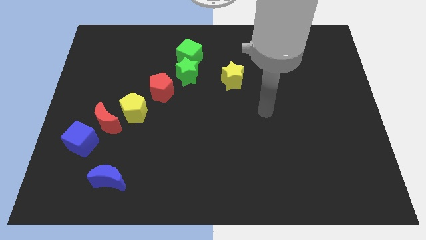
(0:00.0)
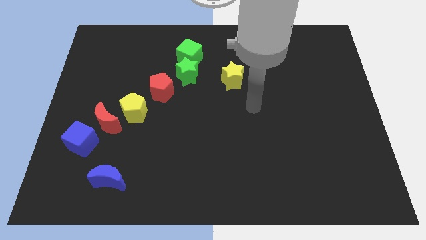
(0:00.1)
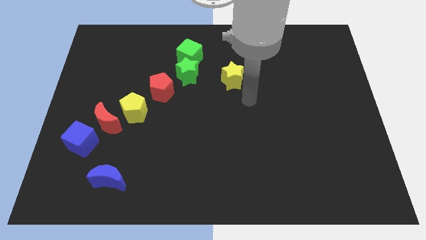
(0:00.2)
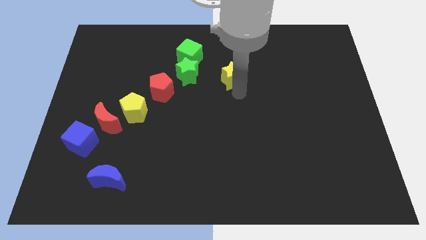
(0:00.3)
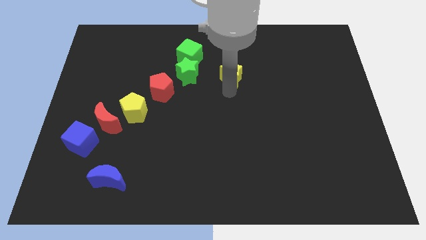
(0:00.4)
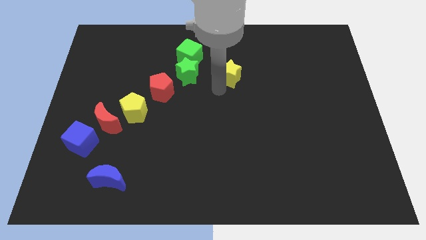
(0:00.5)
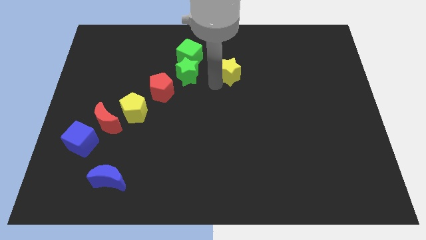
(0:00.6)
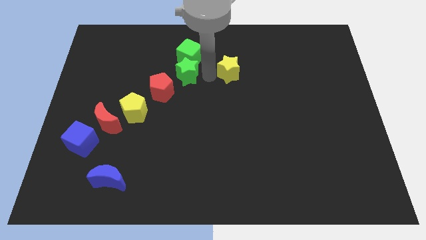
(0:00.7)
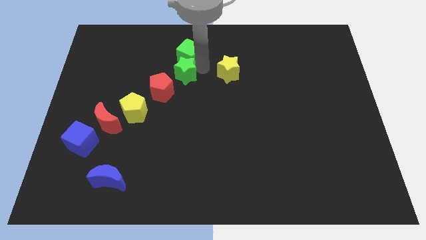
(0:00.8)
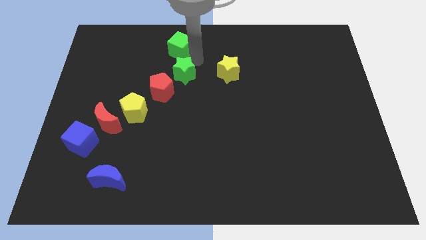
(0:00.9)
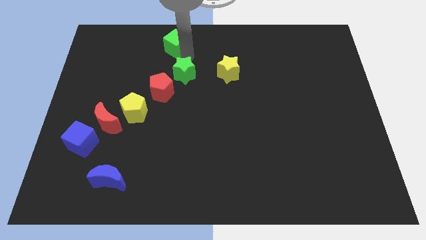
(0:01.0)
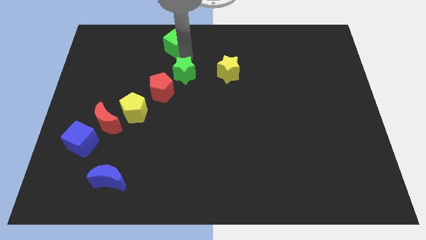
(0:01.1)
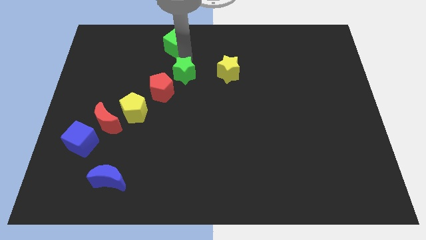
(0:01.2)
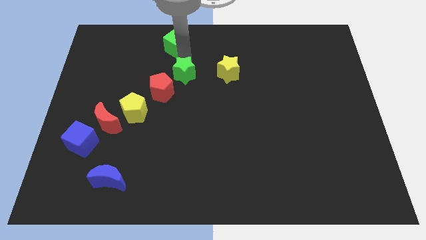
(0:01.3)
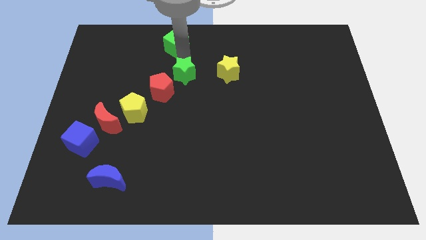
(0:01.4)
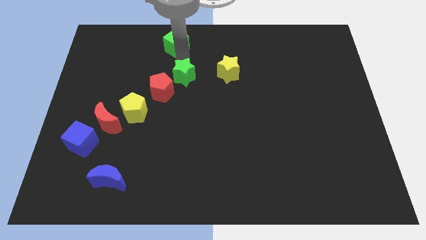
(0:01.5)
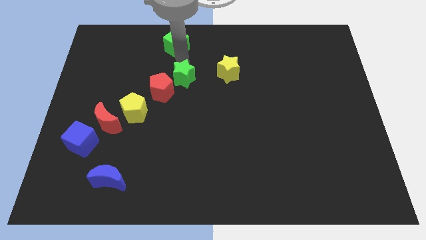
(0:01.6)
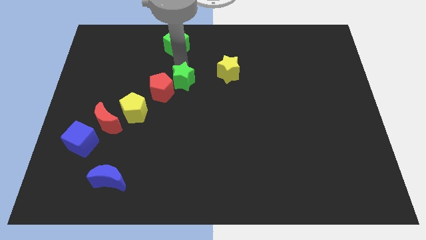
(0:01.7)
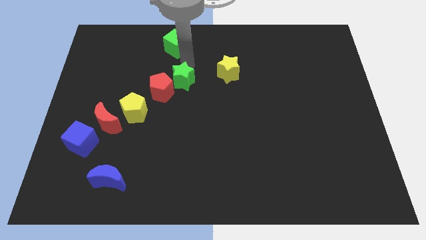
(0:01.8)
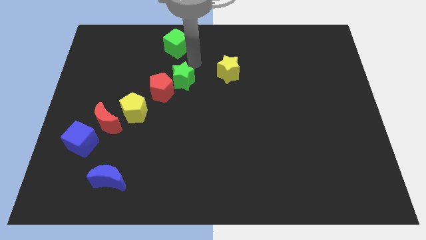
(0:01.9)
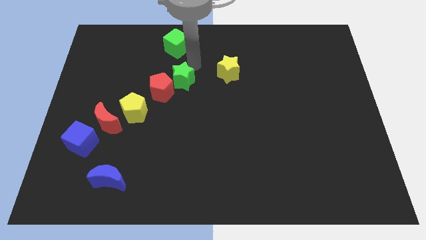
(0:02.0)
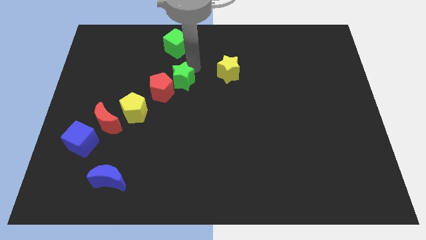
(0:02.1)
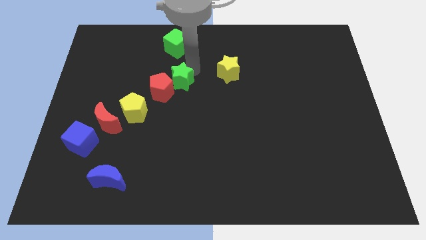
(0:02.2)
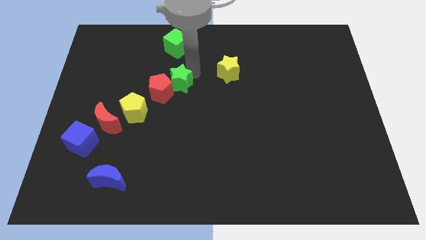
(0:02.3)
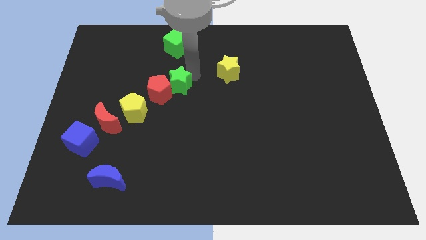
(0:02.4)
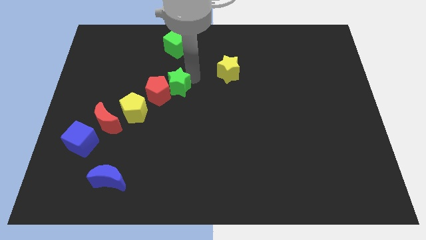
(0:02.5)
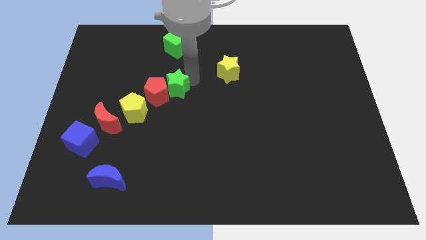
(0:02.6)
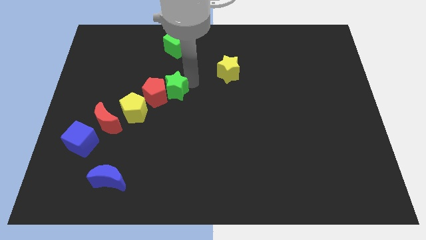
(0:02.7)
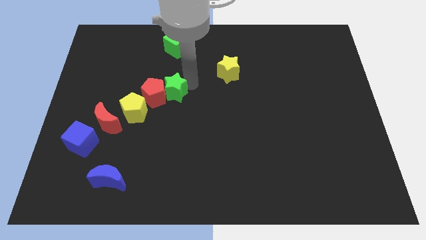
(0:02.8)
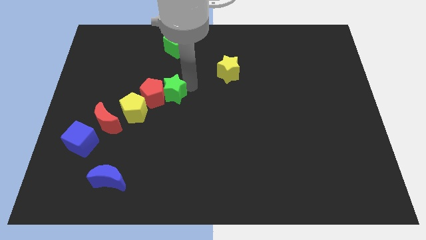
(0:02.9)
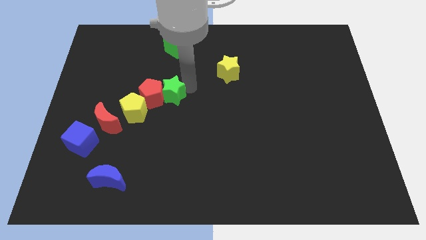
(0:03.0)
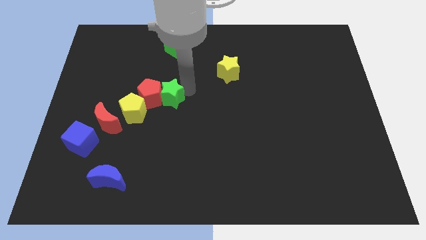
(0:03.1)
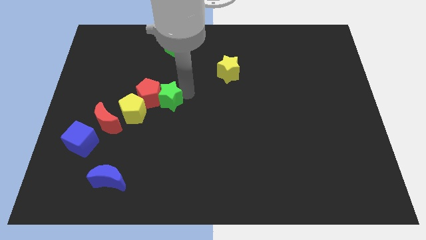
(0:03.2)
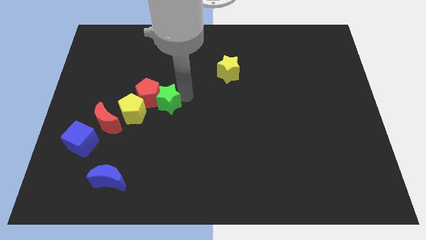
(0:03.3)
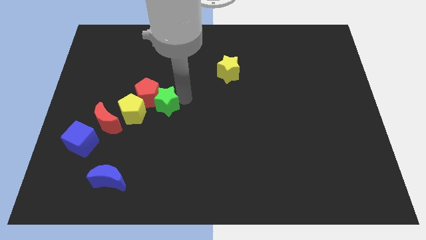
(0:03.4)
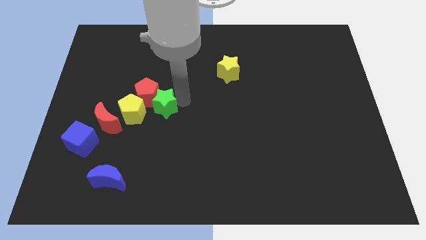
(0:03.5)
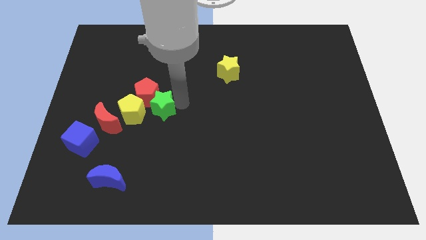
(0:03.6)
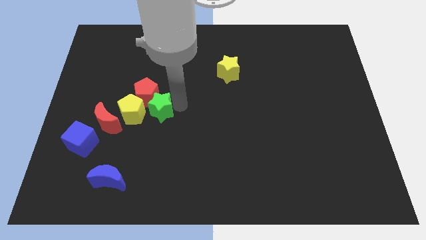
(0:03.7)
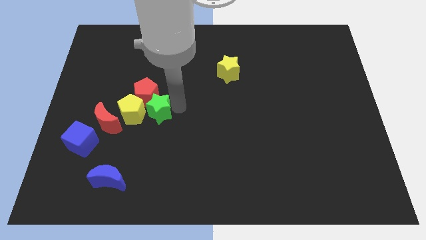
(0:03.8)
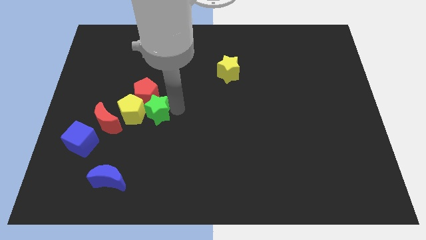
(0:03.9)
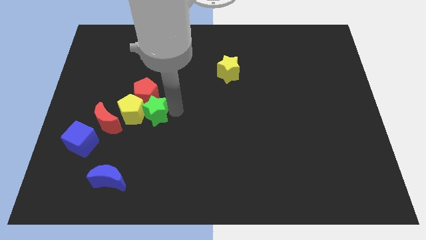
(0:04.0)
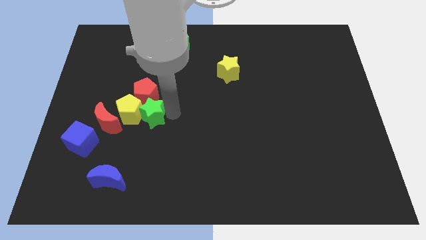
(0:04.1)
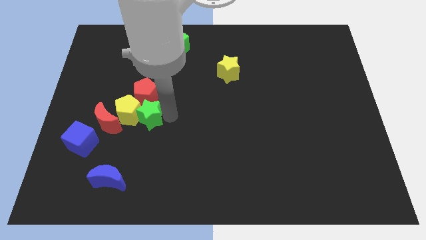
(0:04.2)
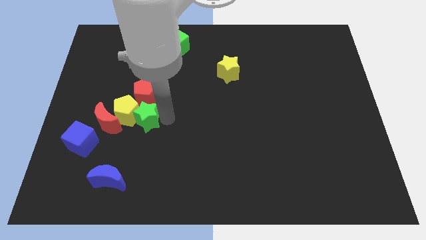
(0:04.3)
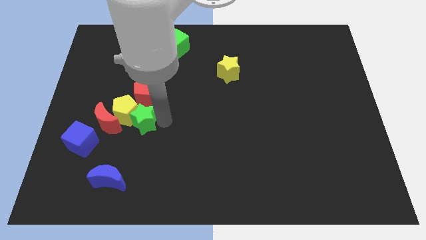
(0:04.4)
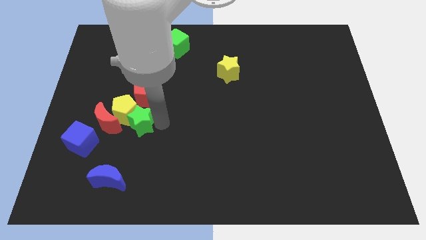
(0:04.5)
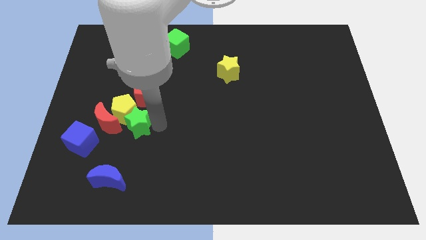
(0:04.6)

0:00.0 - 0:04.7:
push the green star to the top side of the blue moon

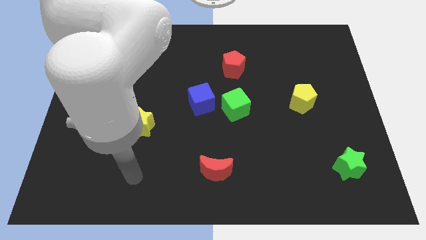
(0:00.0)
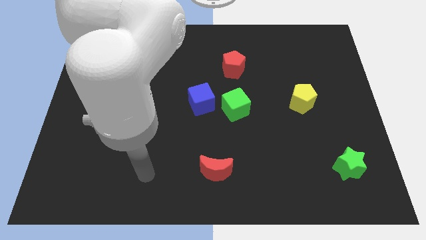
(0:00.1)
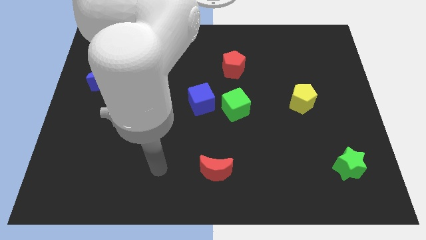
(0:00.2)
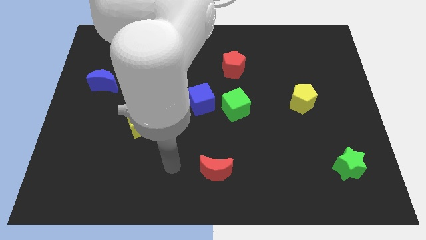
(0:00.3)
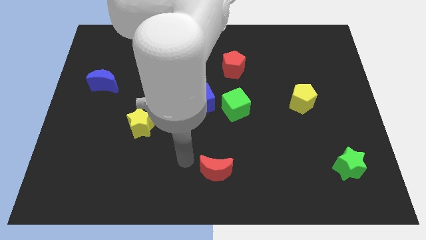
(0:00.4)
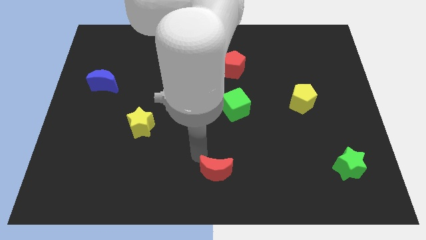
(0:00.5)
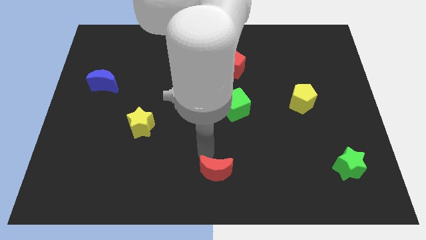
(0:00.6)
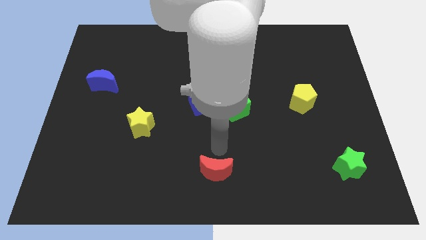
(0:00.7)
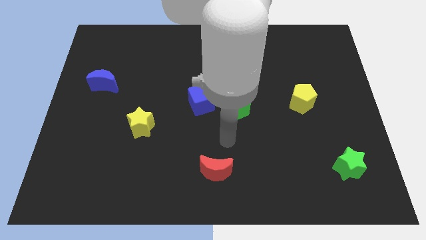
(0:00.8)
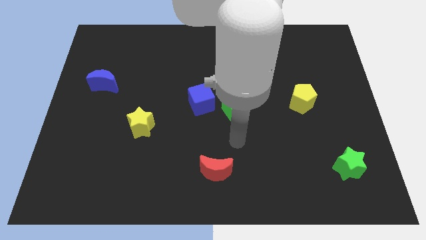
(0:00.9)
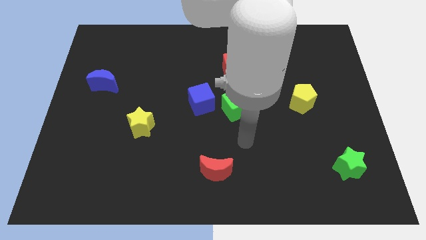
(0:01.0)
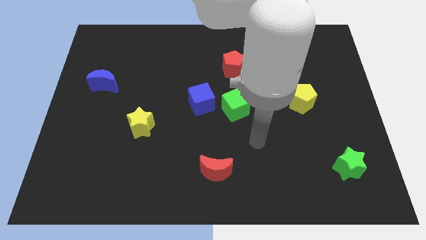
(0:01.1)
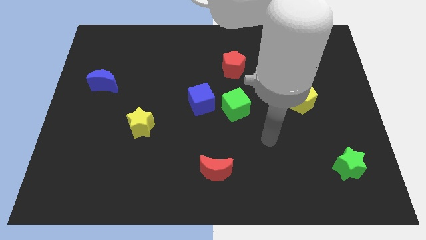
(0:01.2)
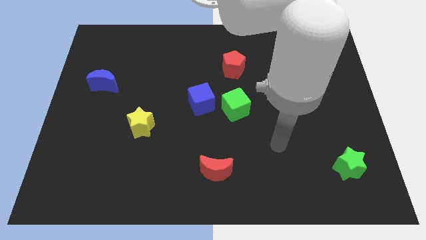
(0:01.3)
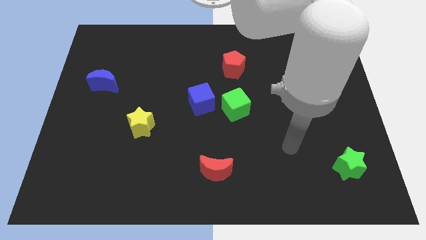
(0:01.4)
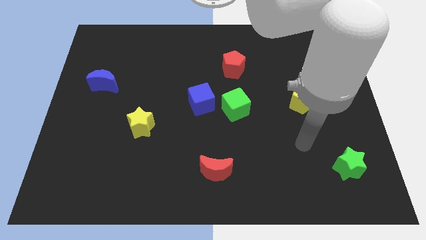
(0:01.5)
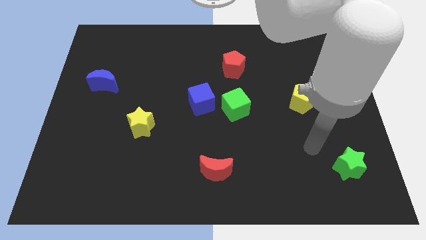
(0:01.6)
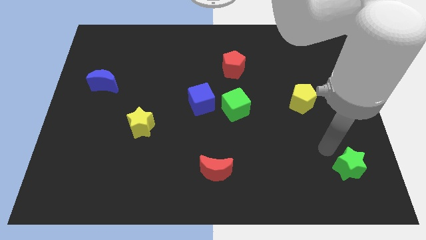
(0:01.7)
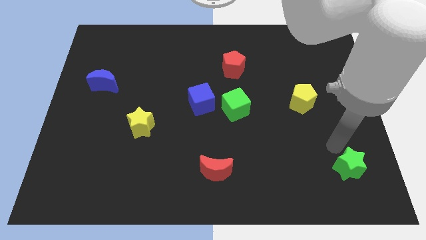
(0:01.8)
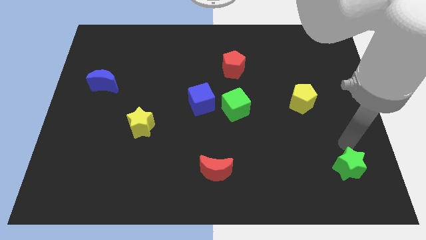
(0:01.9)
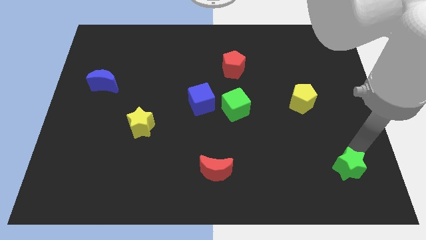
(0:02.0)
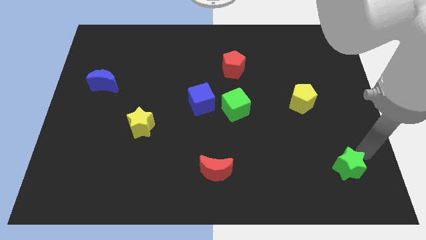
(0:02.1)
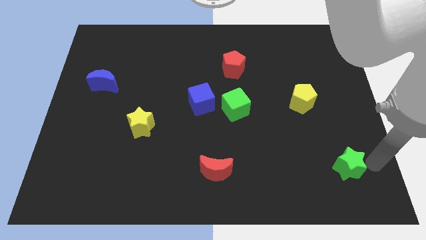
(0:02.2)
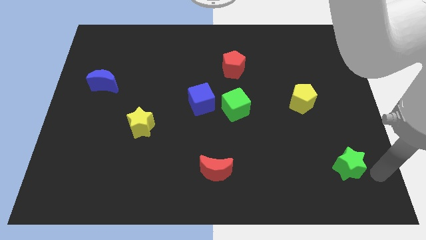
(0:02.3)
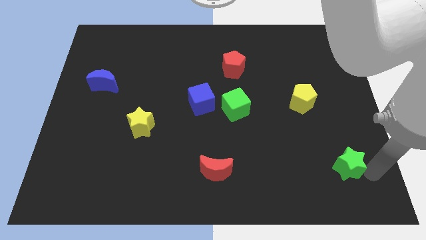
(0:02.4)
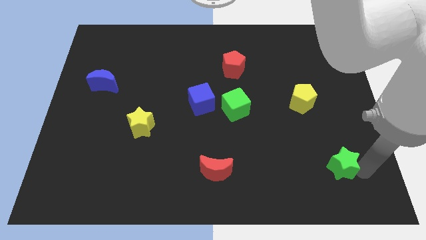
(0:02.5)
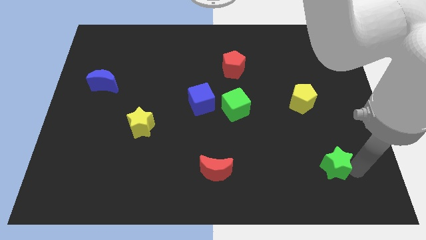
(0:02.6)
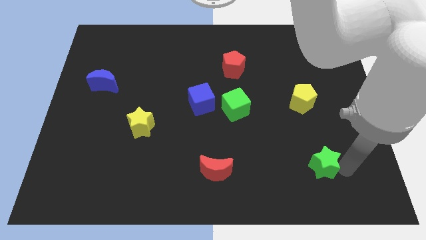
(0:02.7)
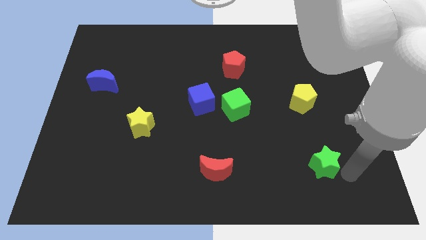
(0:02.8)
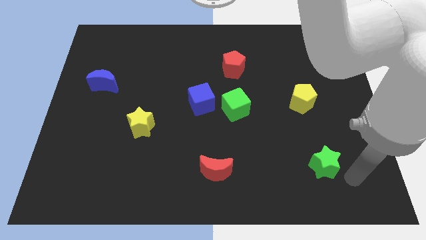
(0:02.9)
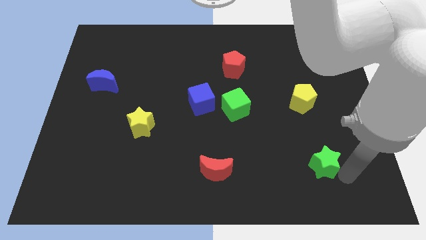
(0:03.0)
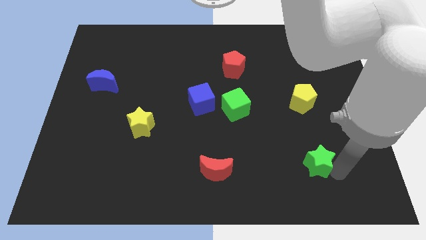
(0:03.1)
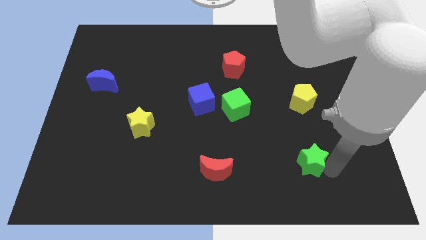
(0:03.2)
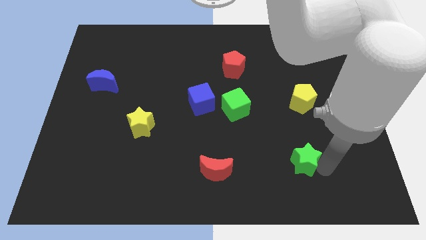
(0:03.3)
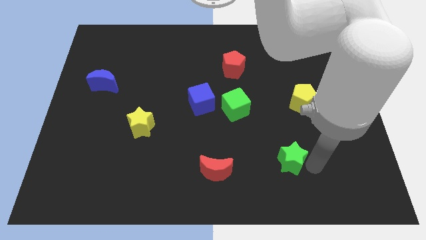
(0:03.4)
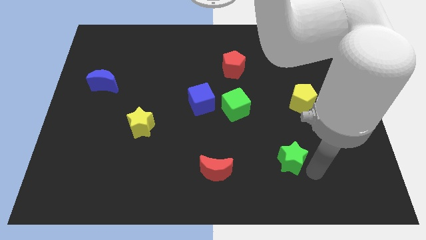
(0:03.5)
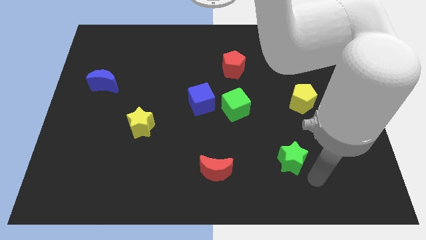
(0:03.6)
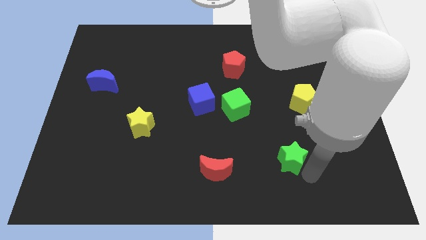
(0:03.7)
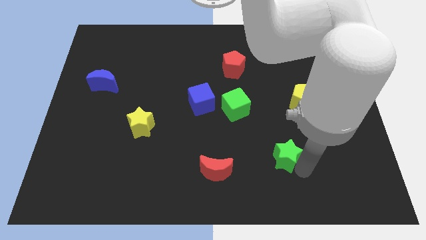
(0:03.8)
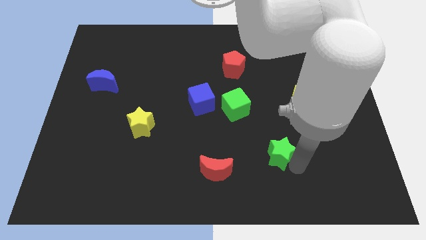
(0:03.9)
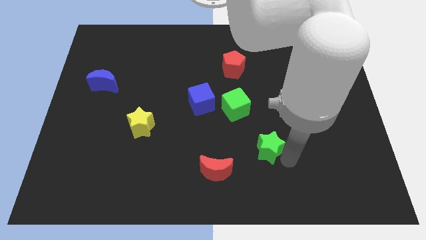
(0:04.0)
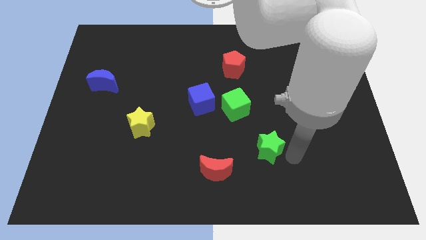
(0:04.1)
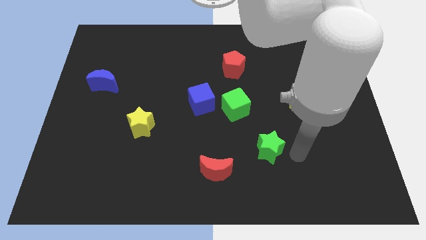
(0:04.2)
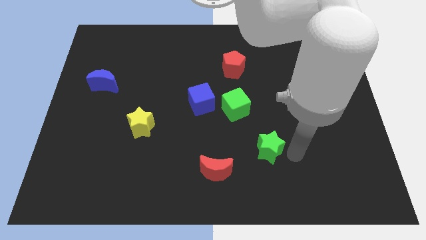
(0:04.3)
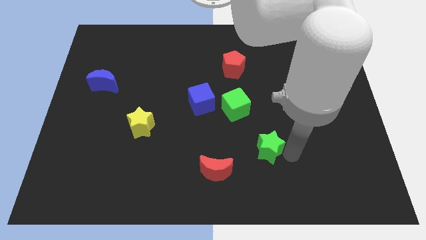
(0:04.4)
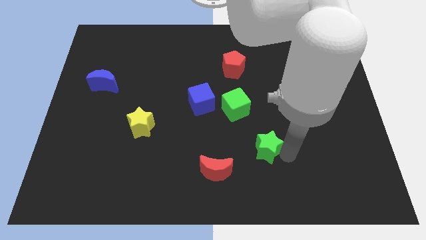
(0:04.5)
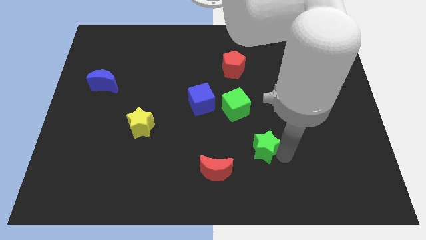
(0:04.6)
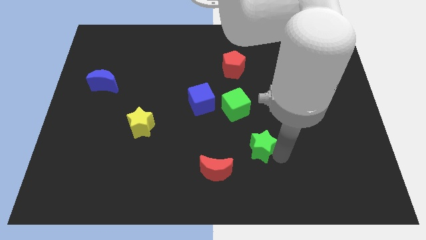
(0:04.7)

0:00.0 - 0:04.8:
push the green star below the green cube
